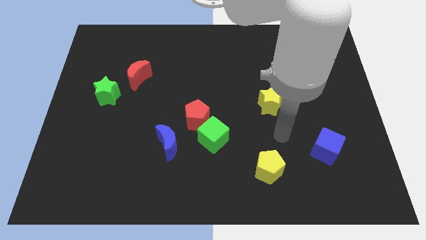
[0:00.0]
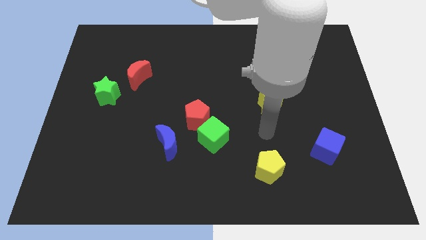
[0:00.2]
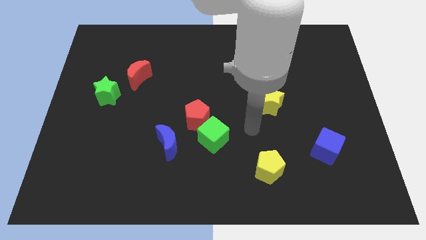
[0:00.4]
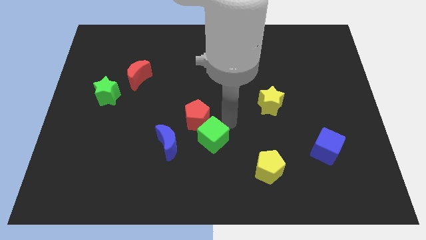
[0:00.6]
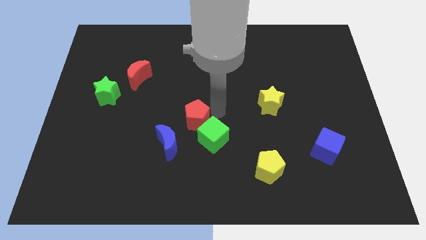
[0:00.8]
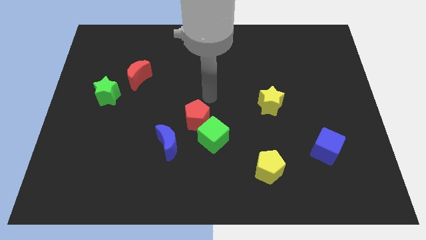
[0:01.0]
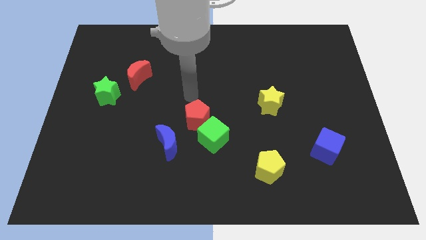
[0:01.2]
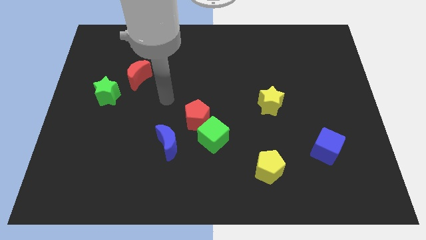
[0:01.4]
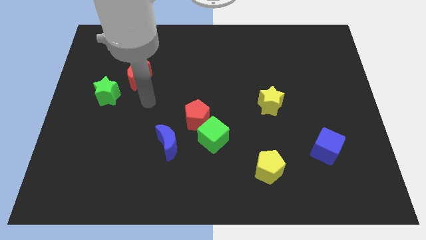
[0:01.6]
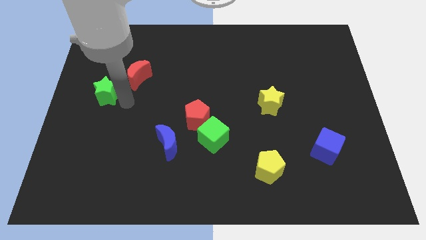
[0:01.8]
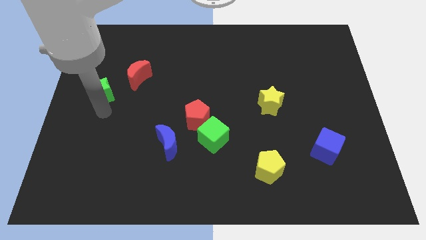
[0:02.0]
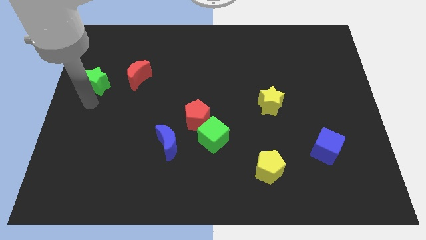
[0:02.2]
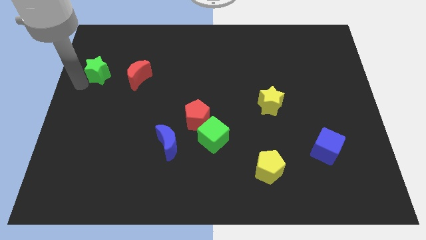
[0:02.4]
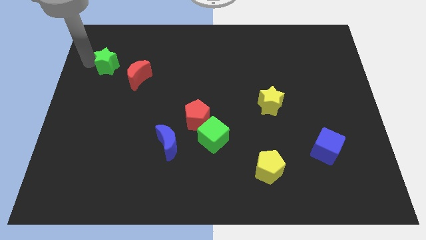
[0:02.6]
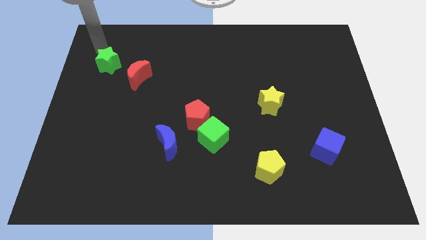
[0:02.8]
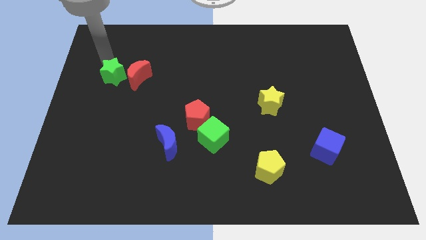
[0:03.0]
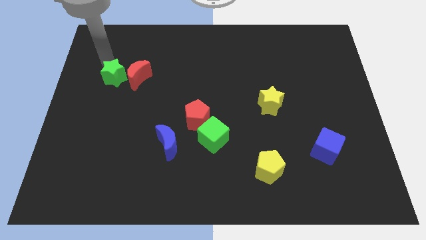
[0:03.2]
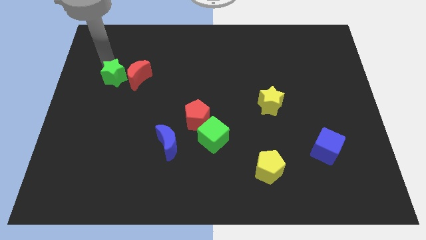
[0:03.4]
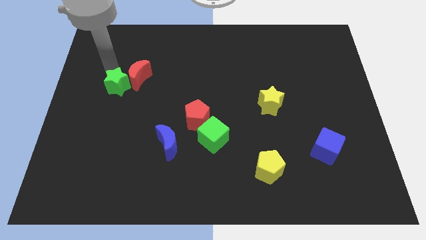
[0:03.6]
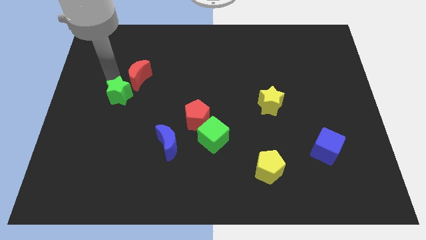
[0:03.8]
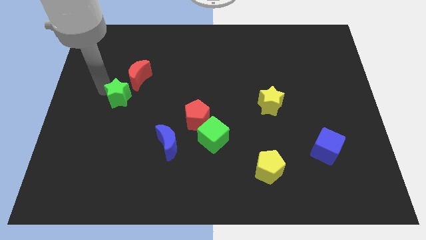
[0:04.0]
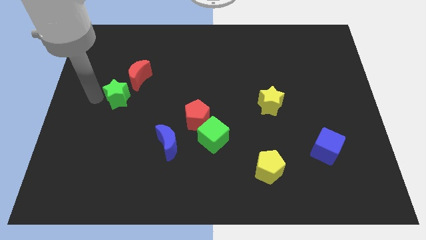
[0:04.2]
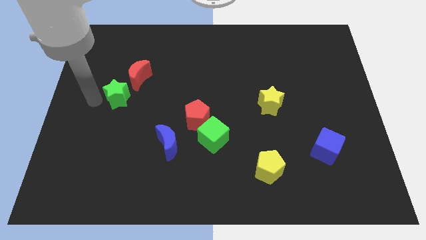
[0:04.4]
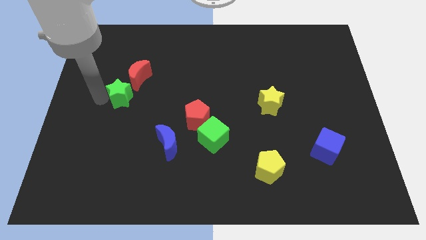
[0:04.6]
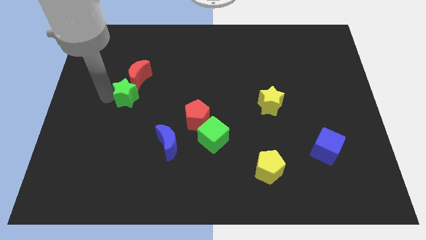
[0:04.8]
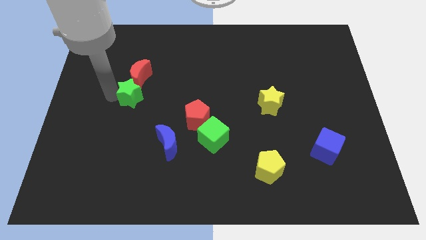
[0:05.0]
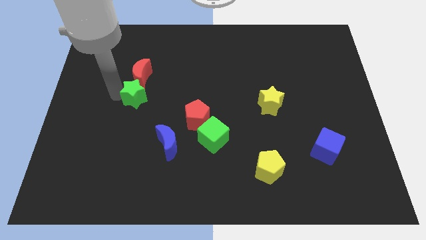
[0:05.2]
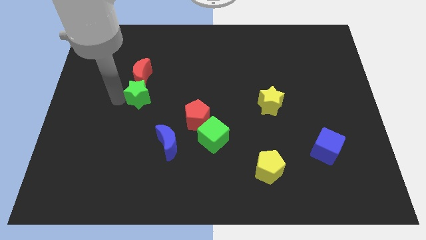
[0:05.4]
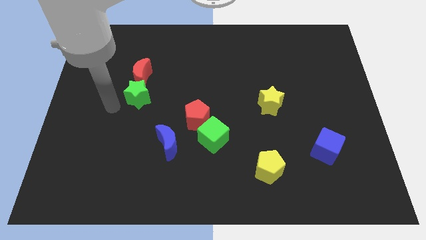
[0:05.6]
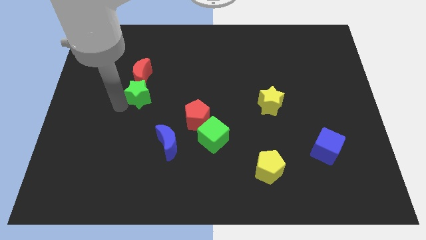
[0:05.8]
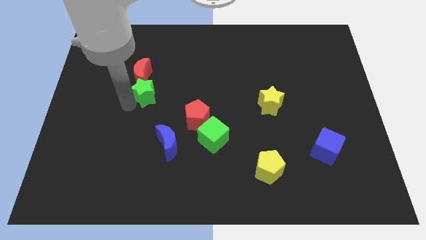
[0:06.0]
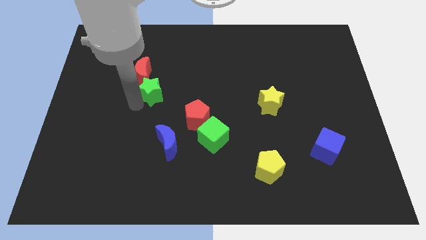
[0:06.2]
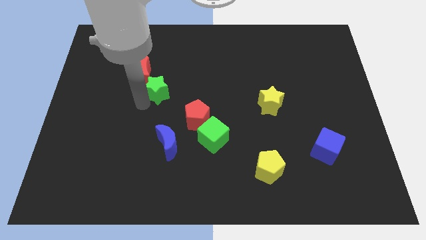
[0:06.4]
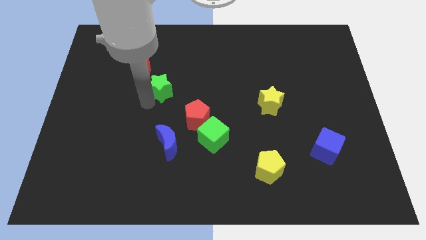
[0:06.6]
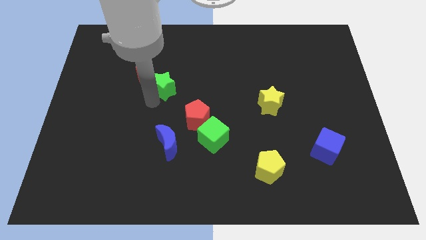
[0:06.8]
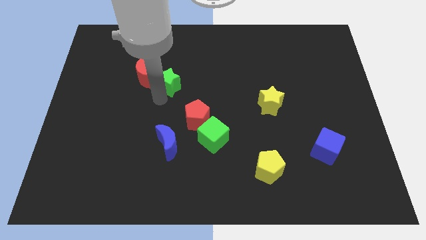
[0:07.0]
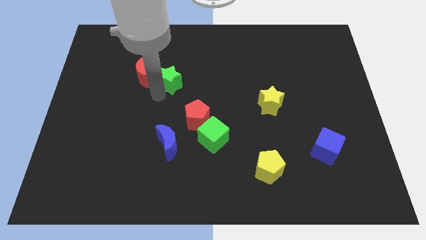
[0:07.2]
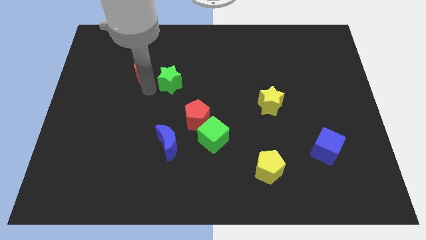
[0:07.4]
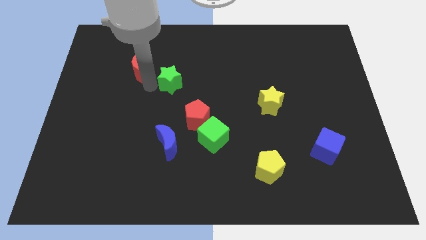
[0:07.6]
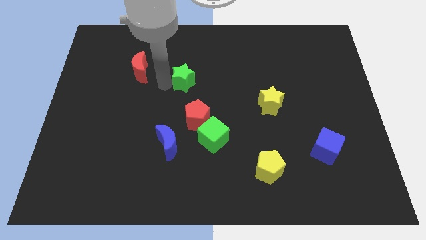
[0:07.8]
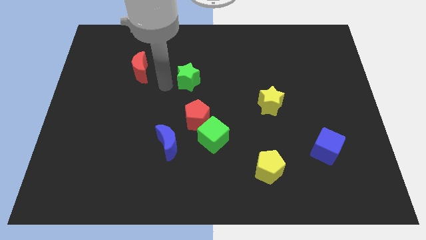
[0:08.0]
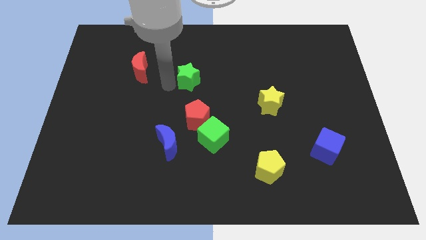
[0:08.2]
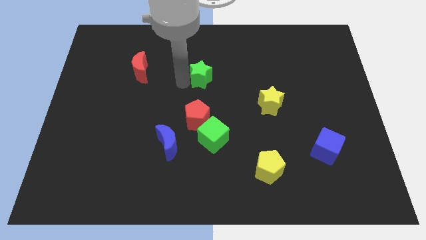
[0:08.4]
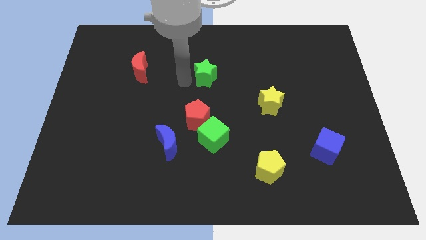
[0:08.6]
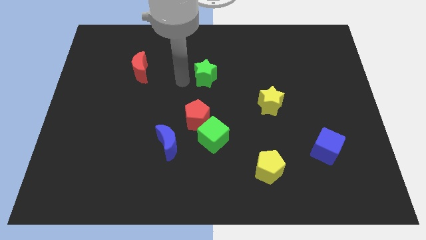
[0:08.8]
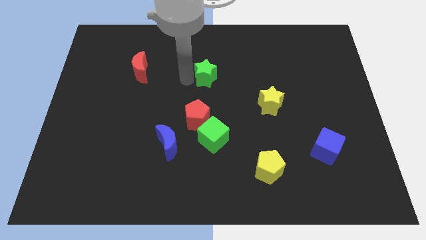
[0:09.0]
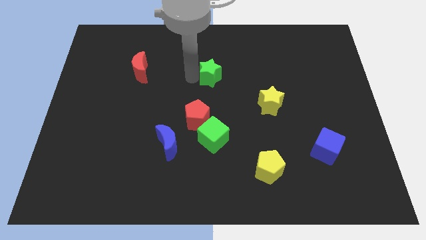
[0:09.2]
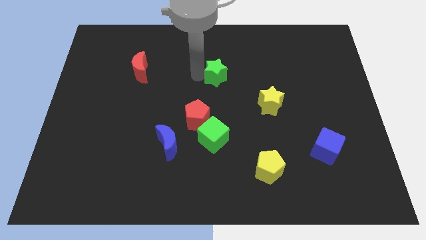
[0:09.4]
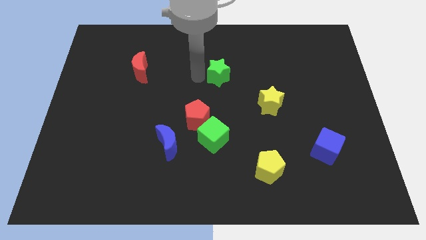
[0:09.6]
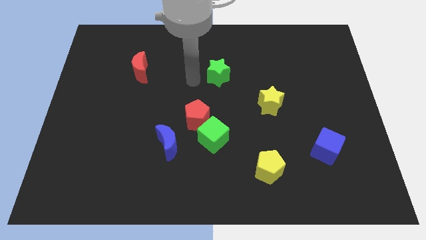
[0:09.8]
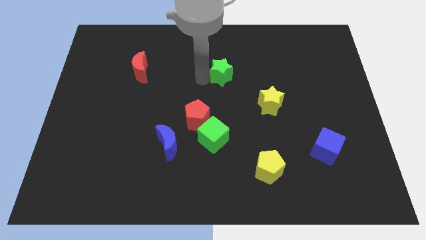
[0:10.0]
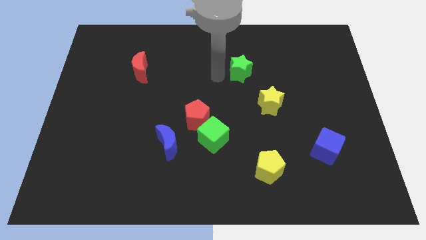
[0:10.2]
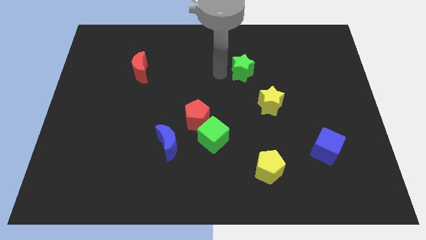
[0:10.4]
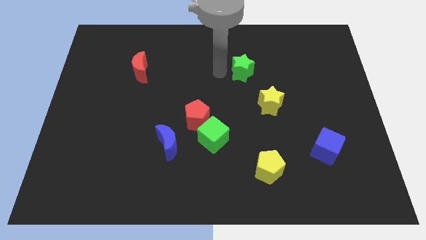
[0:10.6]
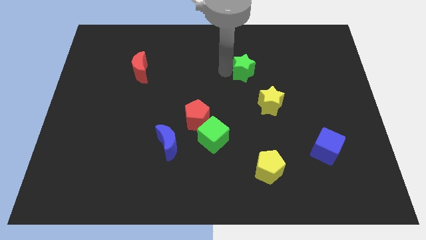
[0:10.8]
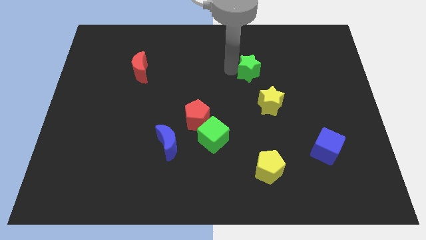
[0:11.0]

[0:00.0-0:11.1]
put the green star to the top side of the yellow star

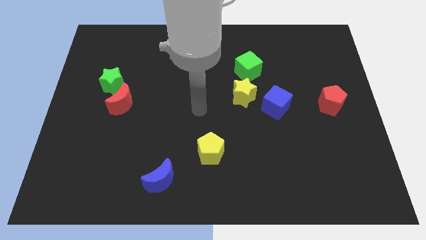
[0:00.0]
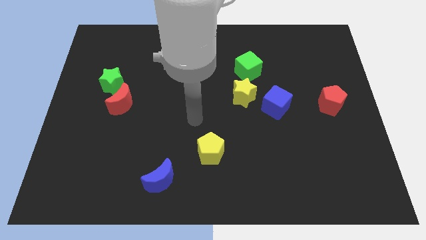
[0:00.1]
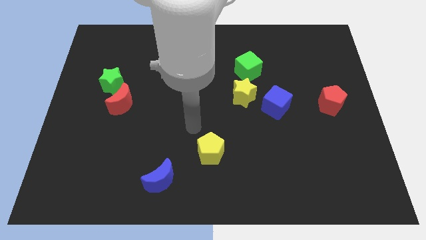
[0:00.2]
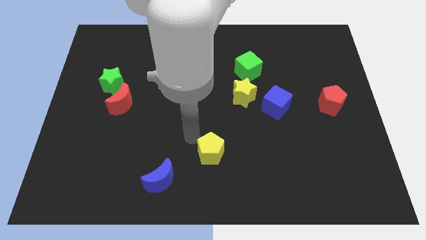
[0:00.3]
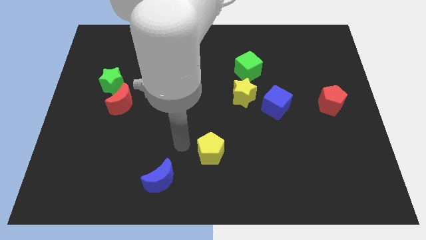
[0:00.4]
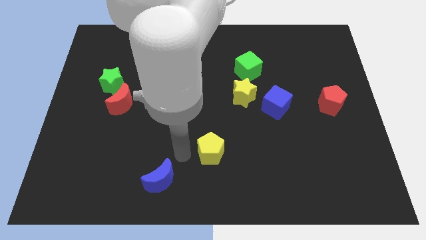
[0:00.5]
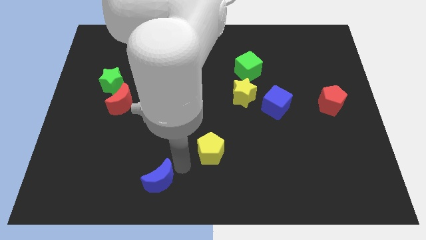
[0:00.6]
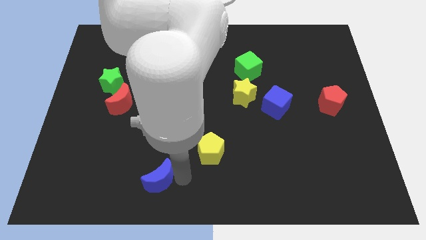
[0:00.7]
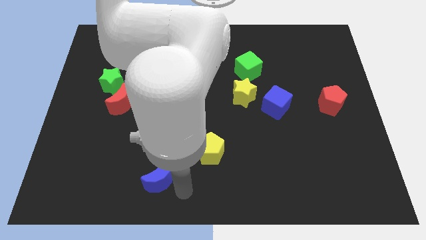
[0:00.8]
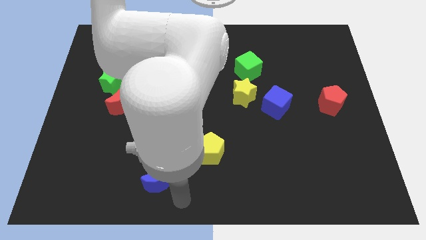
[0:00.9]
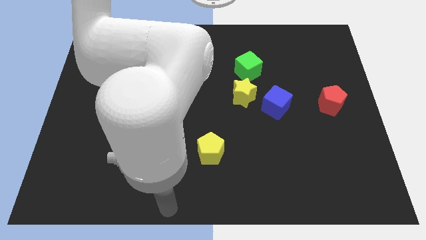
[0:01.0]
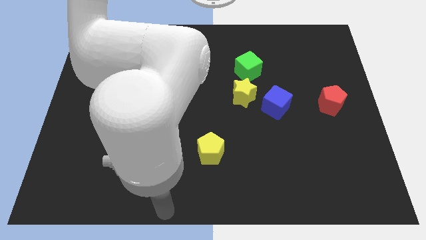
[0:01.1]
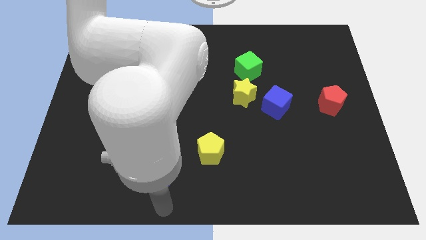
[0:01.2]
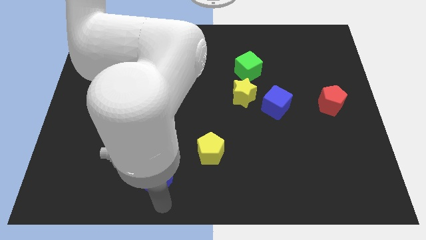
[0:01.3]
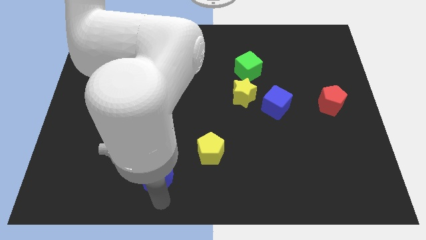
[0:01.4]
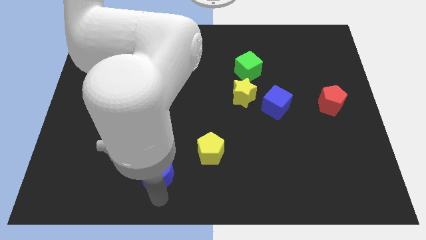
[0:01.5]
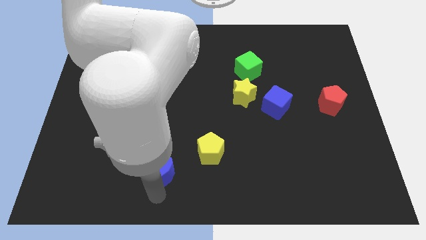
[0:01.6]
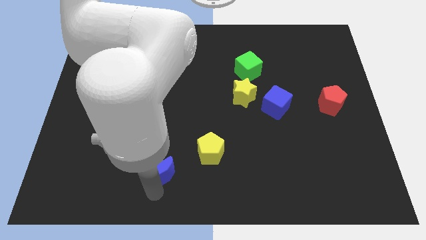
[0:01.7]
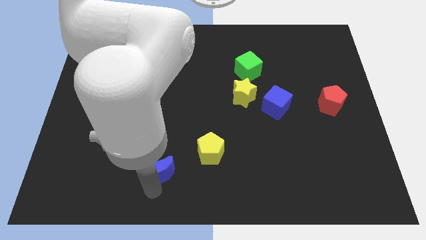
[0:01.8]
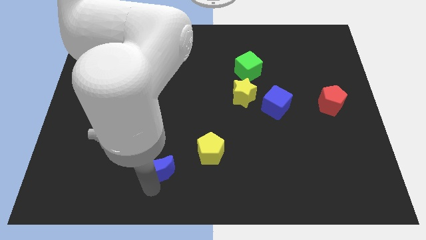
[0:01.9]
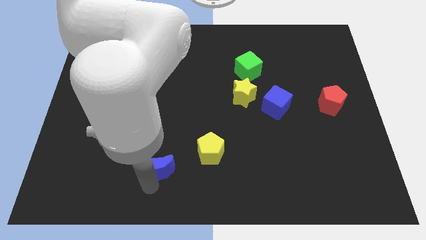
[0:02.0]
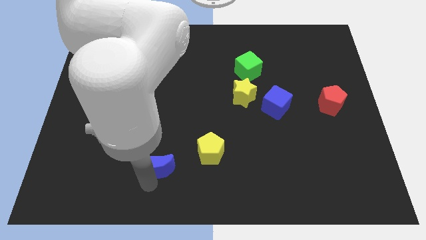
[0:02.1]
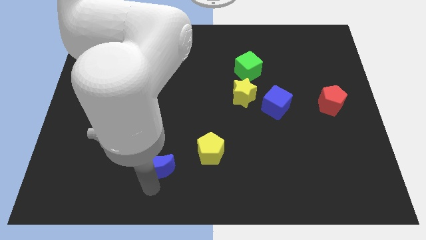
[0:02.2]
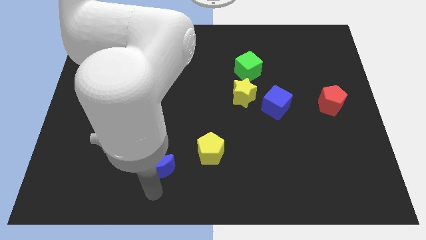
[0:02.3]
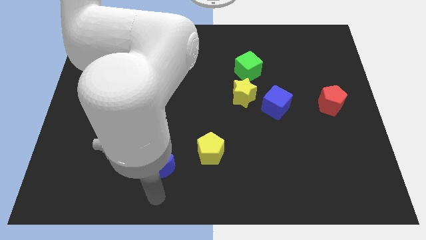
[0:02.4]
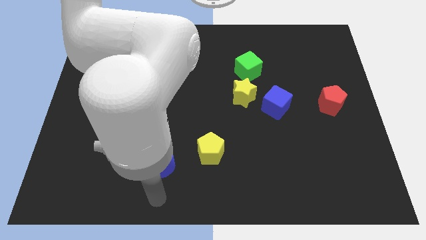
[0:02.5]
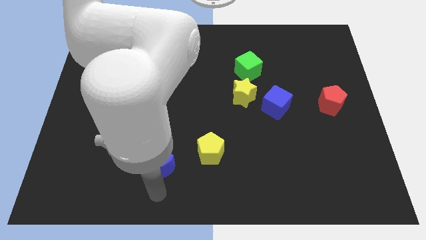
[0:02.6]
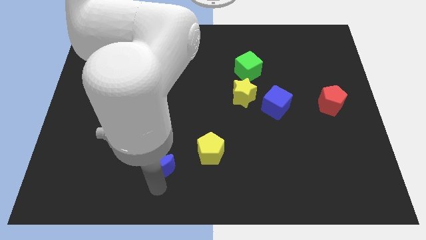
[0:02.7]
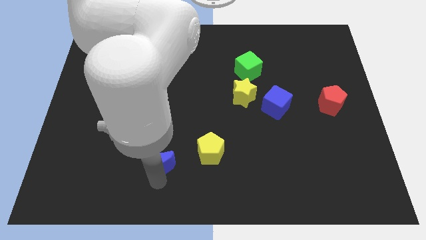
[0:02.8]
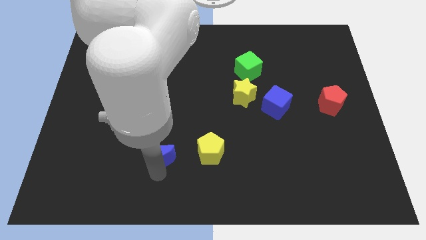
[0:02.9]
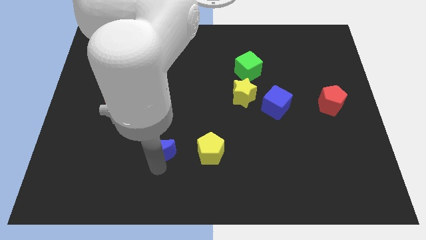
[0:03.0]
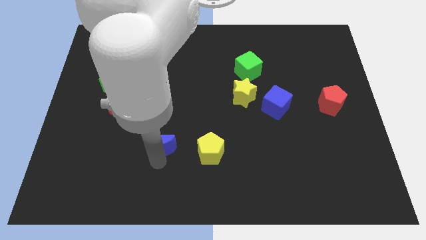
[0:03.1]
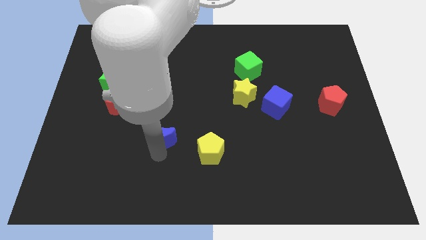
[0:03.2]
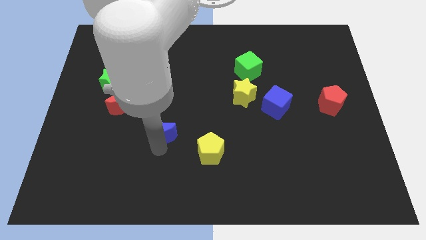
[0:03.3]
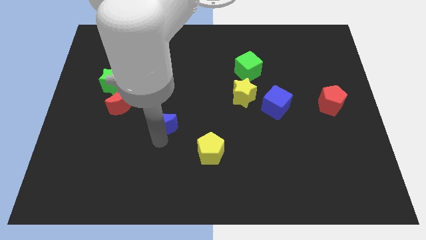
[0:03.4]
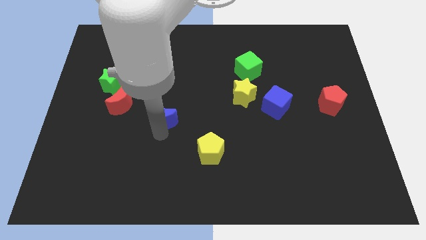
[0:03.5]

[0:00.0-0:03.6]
slide the blue moon right of the red moon
